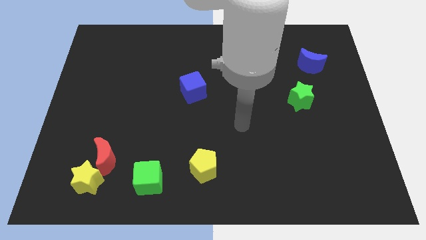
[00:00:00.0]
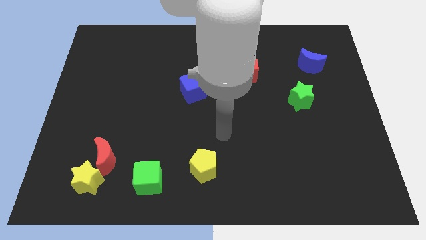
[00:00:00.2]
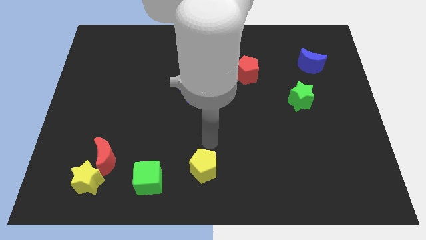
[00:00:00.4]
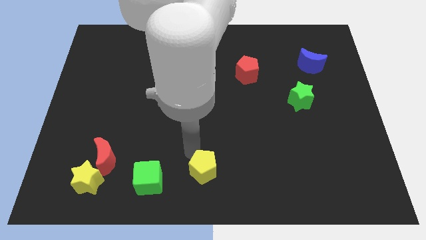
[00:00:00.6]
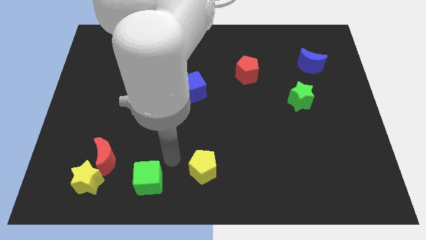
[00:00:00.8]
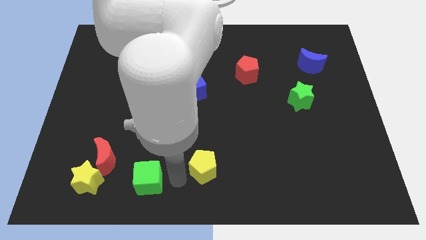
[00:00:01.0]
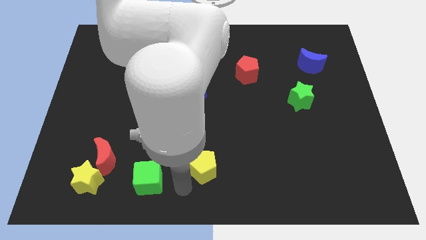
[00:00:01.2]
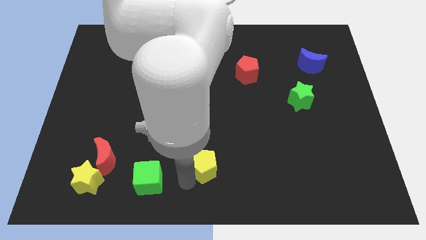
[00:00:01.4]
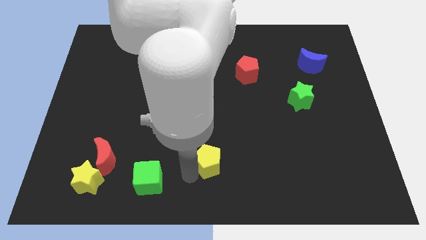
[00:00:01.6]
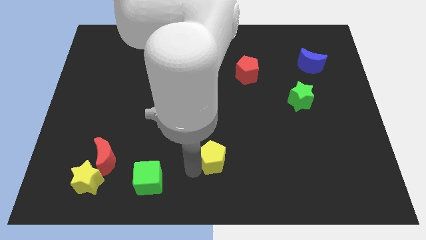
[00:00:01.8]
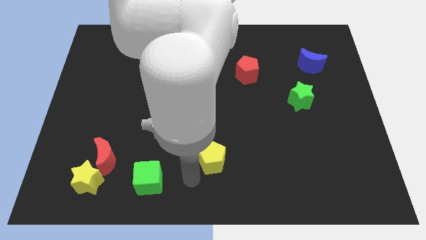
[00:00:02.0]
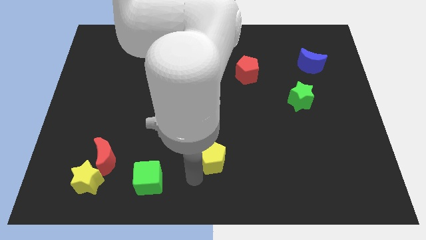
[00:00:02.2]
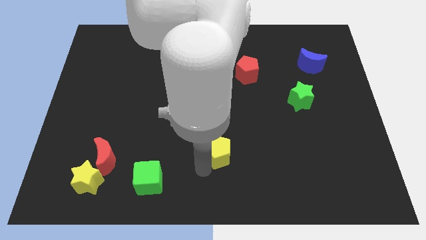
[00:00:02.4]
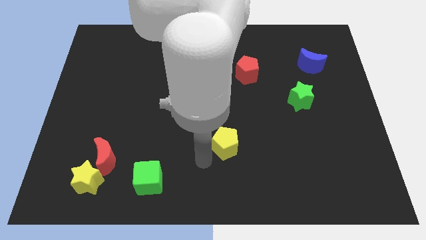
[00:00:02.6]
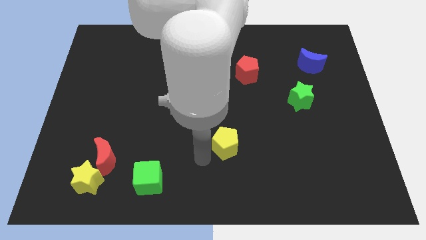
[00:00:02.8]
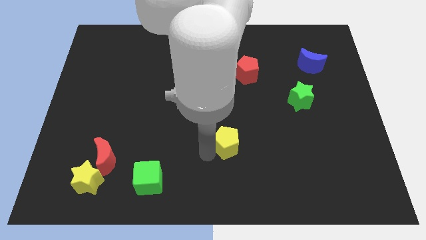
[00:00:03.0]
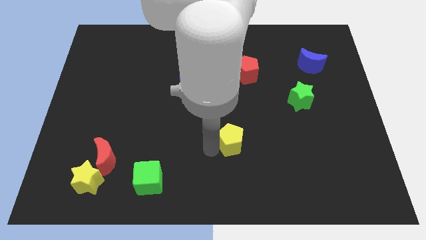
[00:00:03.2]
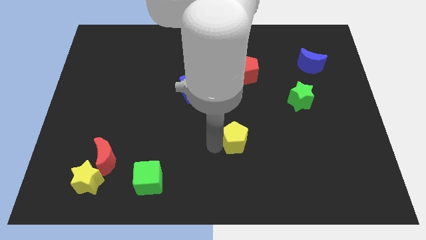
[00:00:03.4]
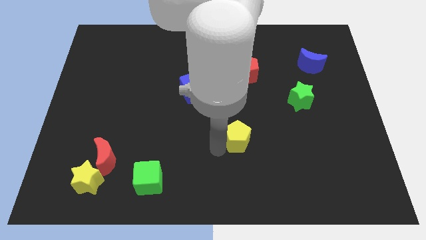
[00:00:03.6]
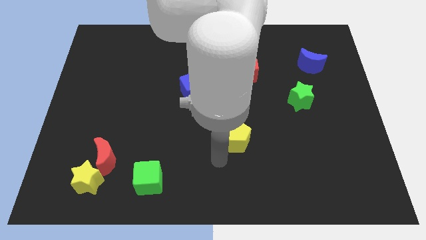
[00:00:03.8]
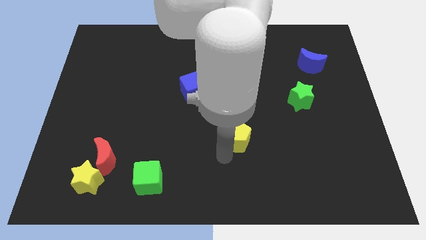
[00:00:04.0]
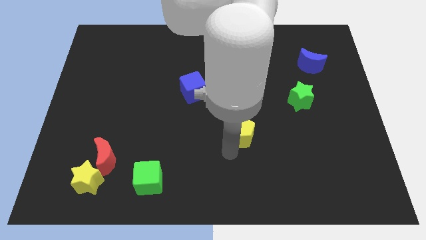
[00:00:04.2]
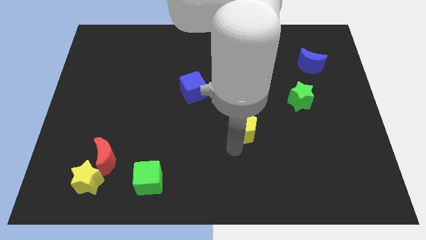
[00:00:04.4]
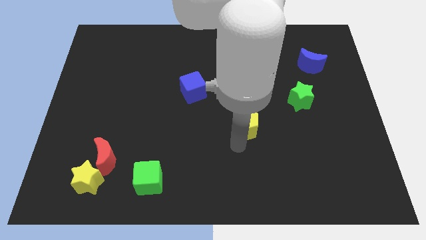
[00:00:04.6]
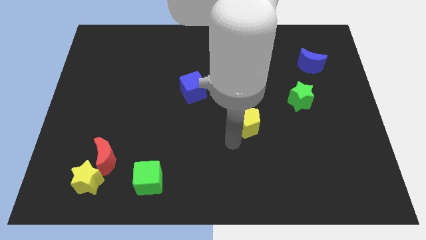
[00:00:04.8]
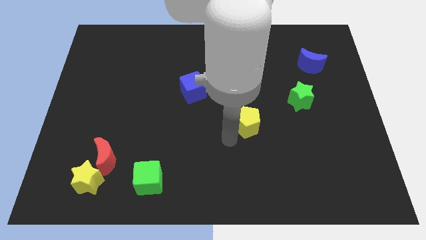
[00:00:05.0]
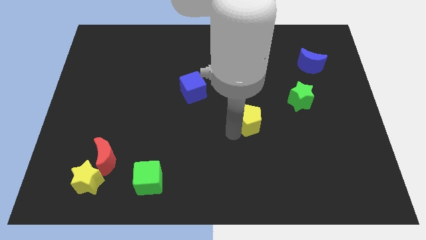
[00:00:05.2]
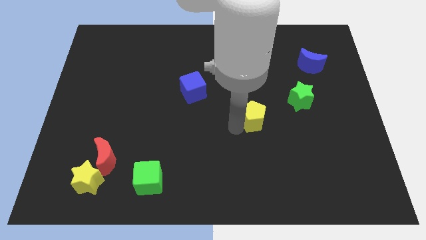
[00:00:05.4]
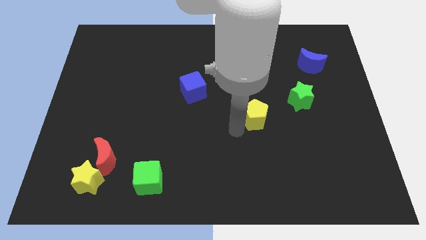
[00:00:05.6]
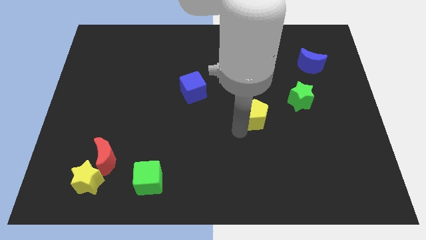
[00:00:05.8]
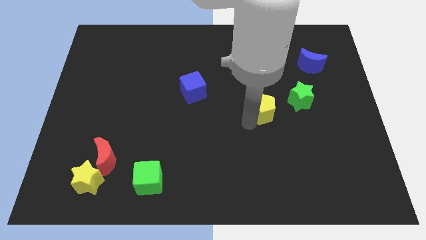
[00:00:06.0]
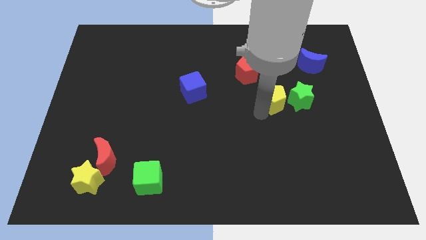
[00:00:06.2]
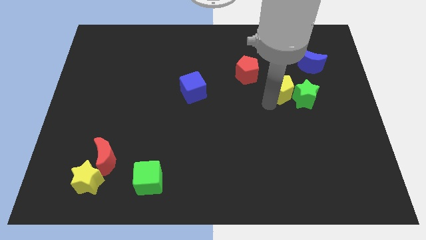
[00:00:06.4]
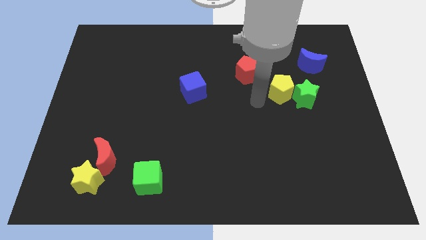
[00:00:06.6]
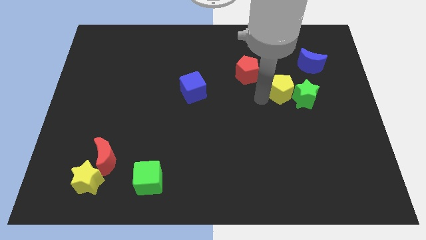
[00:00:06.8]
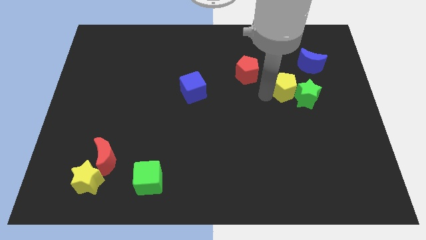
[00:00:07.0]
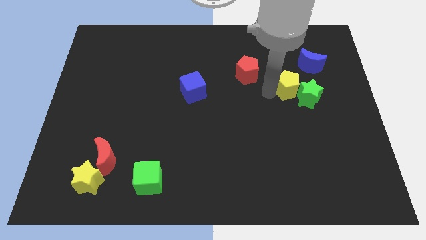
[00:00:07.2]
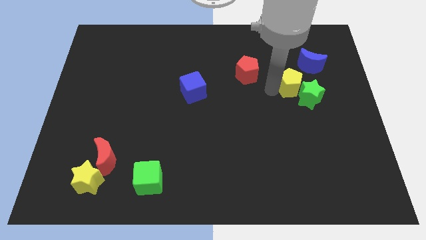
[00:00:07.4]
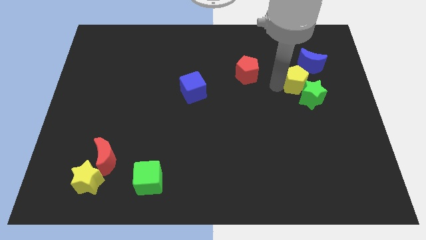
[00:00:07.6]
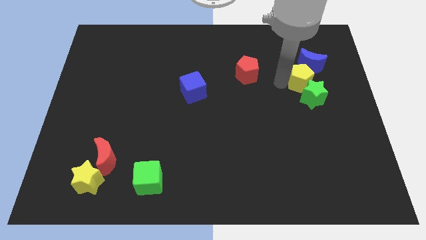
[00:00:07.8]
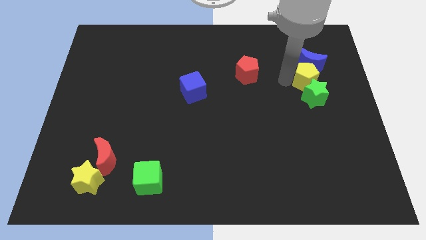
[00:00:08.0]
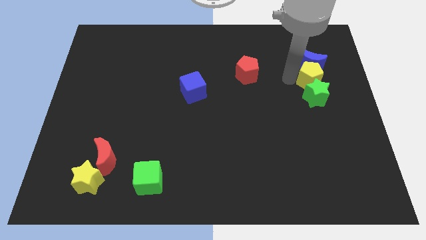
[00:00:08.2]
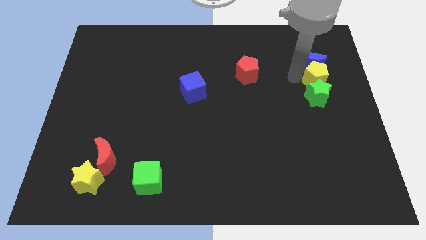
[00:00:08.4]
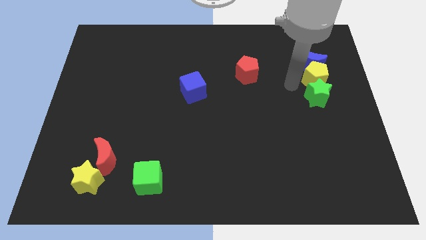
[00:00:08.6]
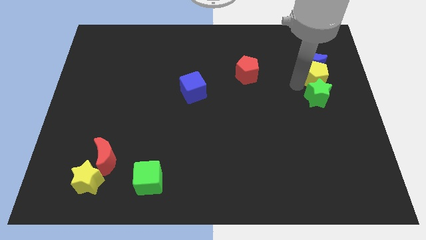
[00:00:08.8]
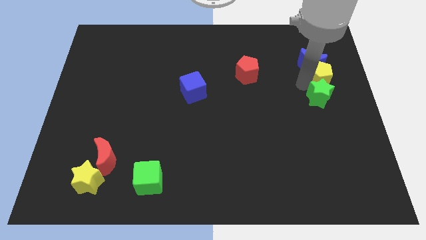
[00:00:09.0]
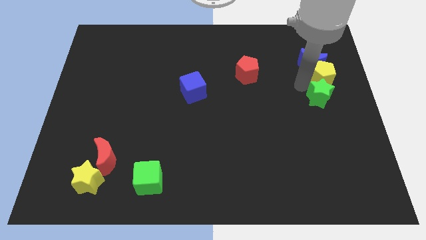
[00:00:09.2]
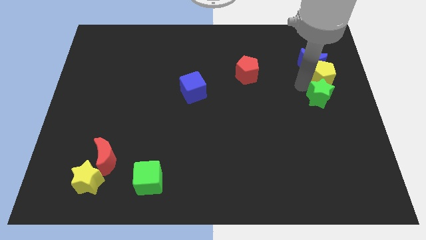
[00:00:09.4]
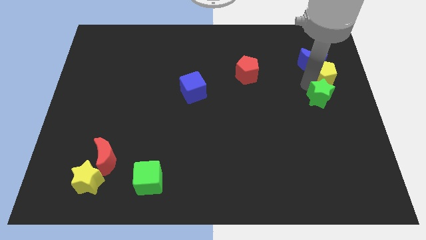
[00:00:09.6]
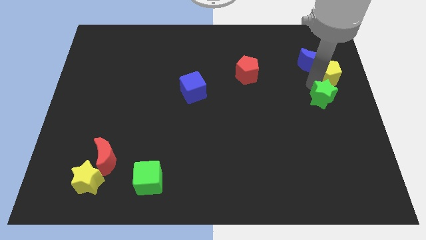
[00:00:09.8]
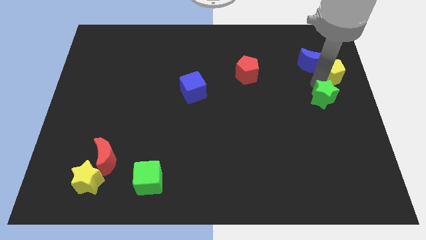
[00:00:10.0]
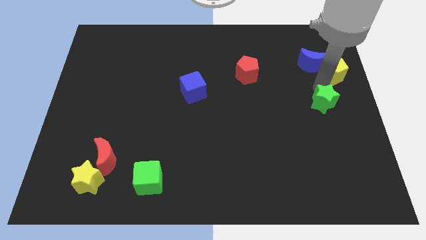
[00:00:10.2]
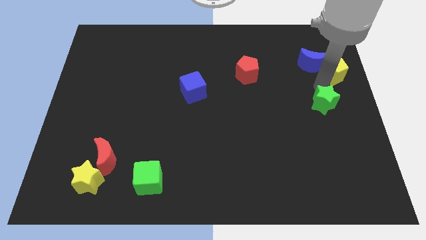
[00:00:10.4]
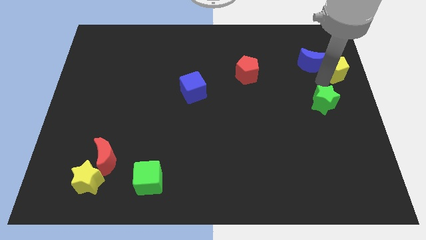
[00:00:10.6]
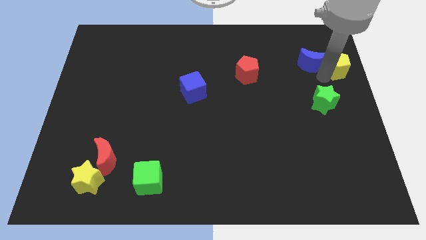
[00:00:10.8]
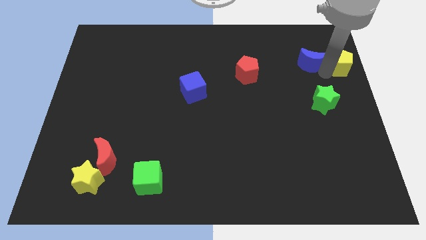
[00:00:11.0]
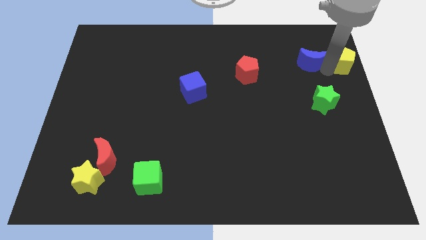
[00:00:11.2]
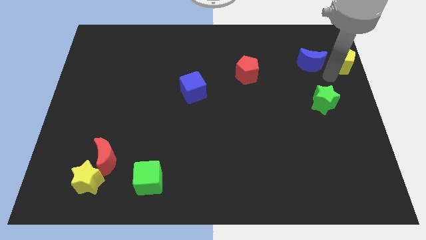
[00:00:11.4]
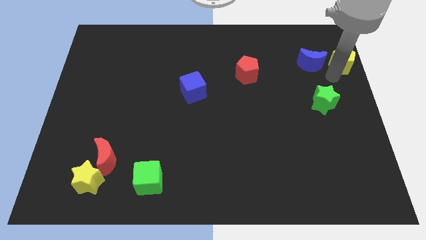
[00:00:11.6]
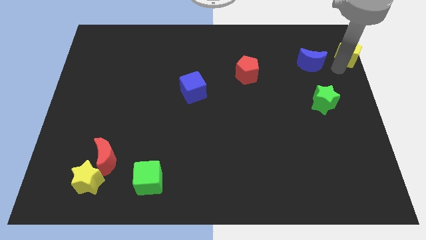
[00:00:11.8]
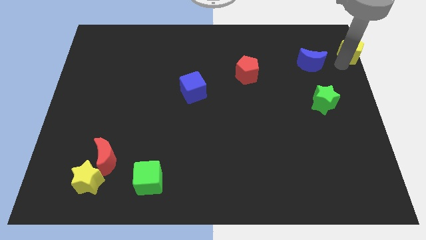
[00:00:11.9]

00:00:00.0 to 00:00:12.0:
slide the yellow pentagon to the top right

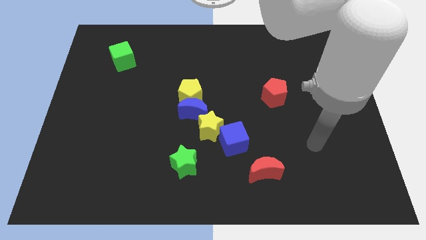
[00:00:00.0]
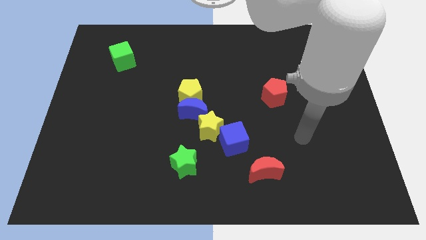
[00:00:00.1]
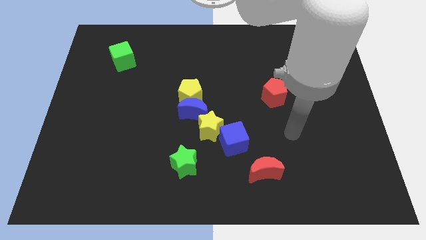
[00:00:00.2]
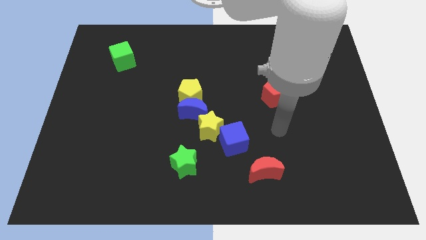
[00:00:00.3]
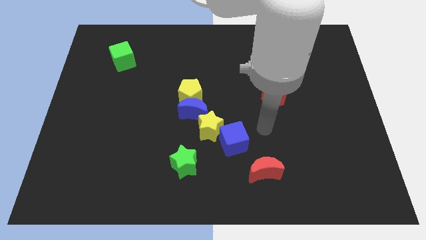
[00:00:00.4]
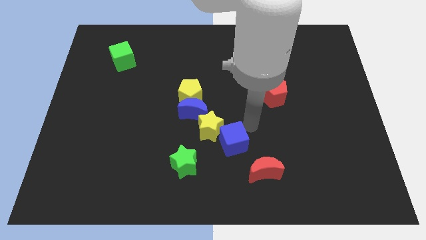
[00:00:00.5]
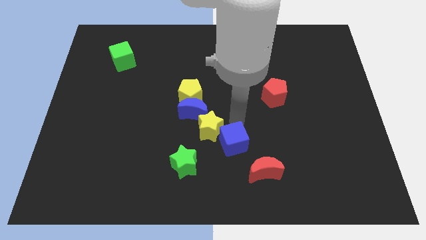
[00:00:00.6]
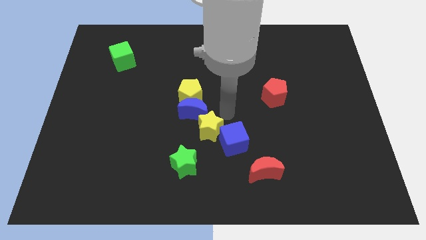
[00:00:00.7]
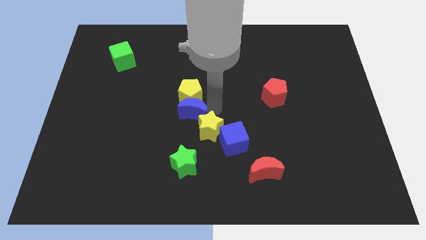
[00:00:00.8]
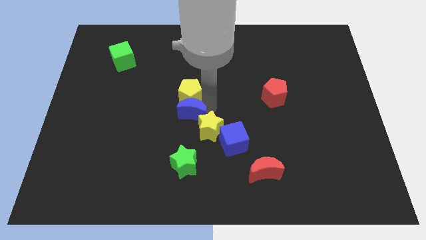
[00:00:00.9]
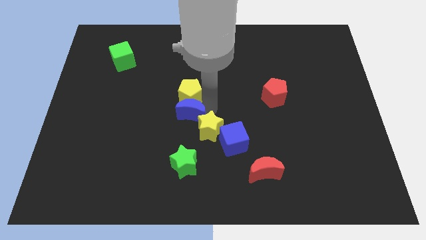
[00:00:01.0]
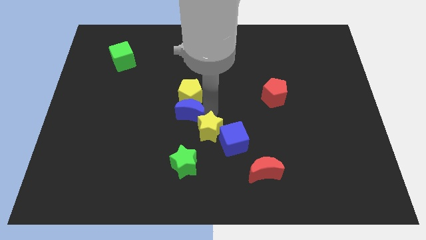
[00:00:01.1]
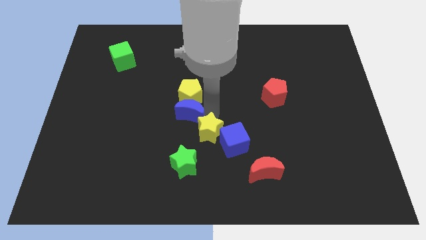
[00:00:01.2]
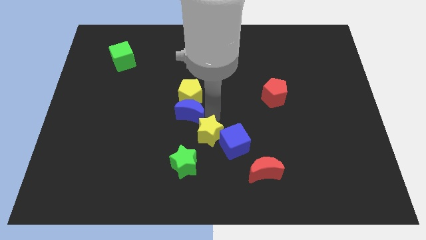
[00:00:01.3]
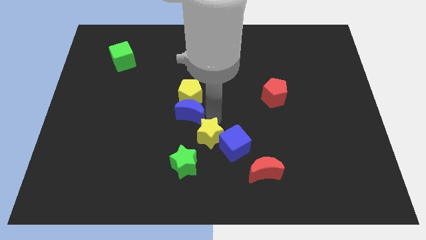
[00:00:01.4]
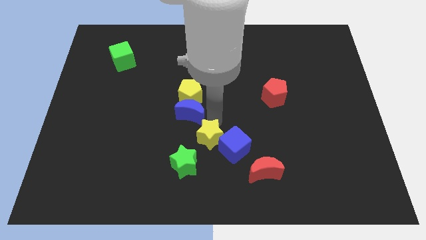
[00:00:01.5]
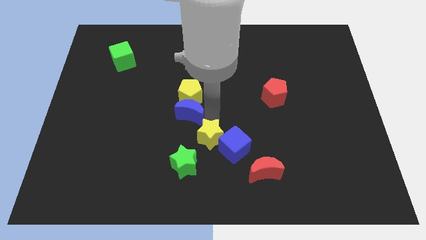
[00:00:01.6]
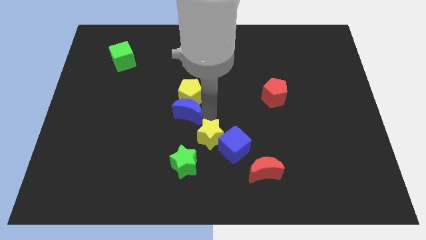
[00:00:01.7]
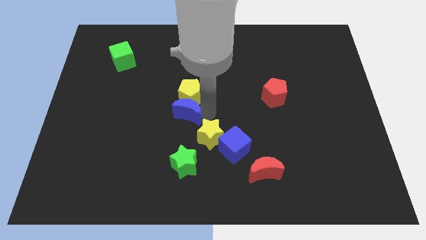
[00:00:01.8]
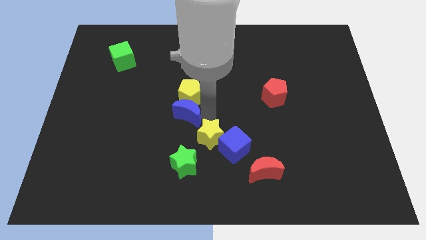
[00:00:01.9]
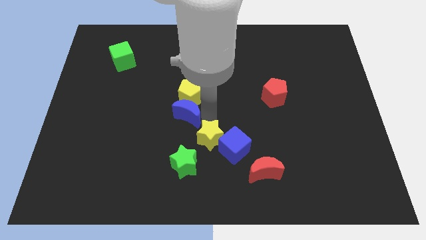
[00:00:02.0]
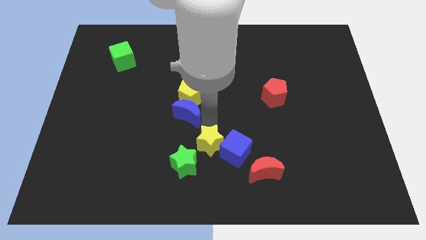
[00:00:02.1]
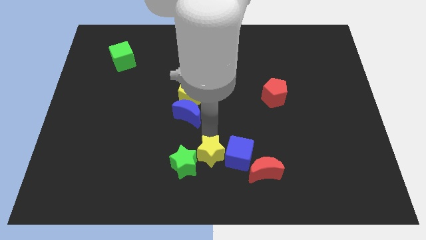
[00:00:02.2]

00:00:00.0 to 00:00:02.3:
put the yellow star to the bottom

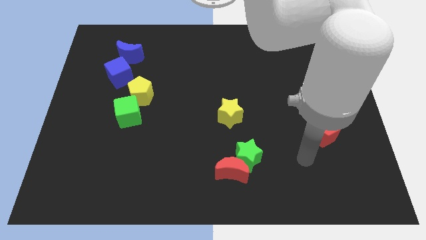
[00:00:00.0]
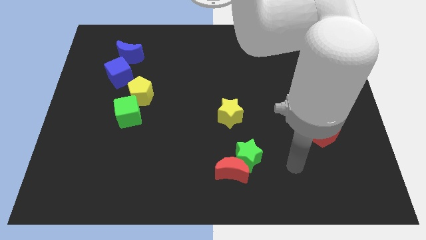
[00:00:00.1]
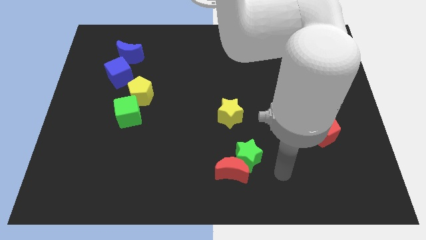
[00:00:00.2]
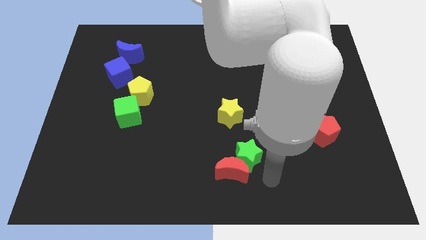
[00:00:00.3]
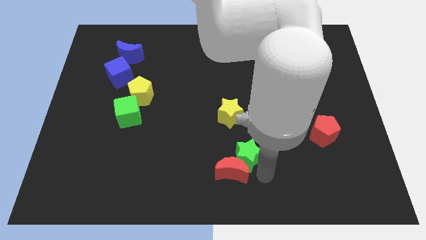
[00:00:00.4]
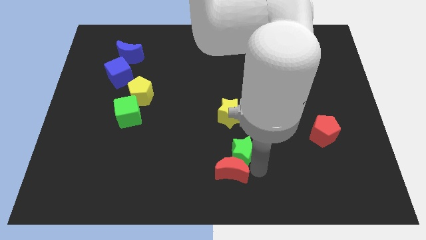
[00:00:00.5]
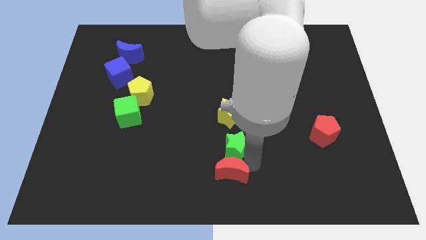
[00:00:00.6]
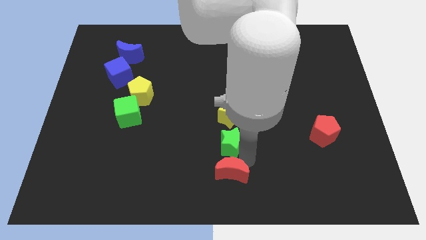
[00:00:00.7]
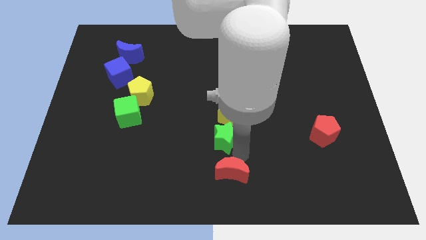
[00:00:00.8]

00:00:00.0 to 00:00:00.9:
put the green star to the middle of the board
